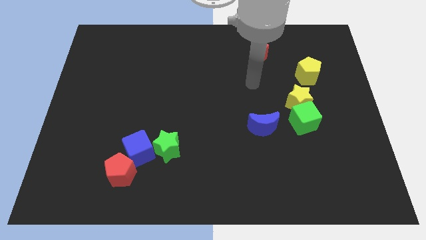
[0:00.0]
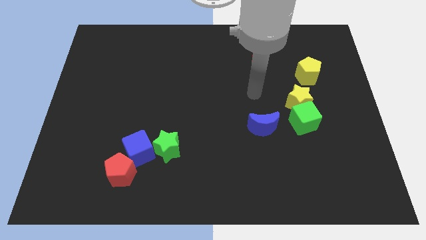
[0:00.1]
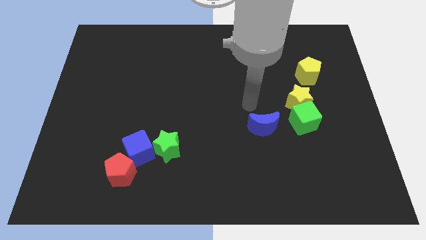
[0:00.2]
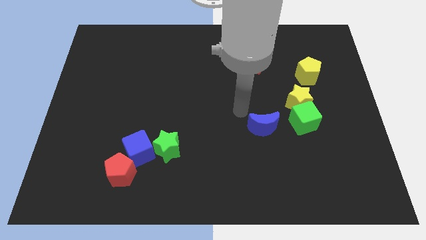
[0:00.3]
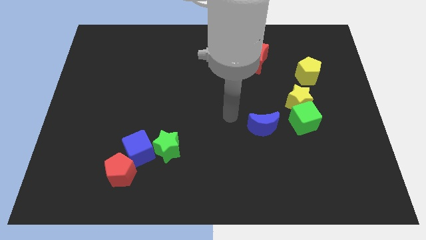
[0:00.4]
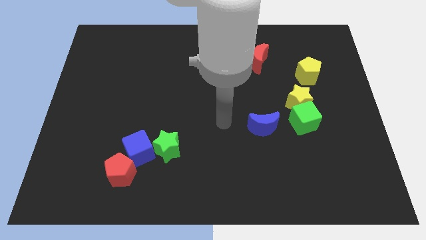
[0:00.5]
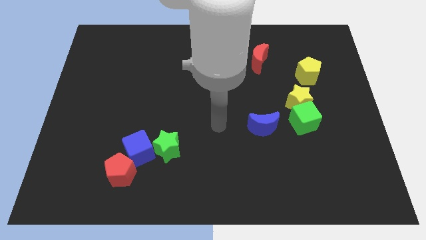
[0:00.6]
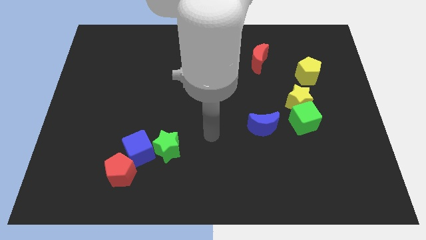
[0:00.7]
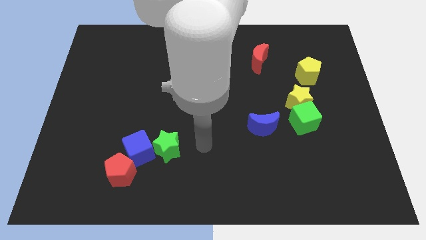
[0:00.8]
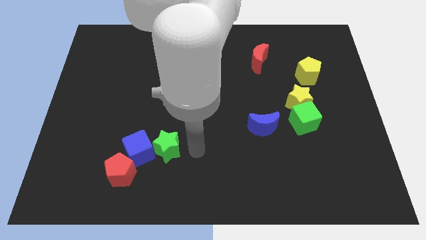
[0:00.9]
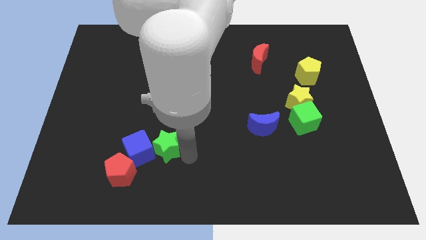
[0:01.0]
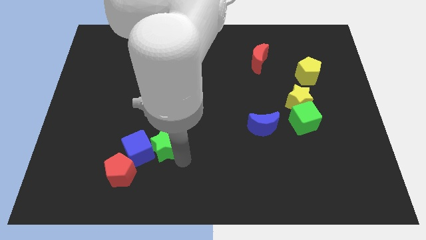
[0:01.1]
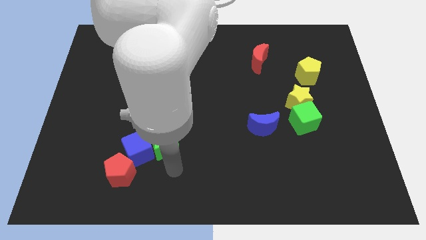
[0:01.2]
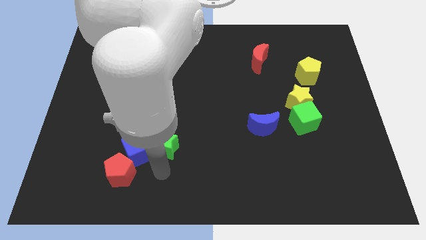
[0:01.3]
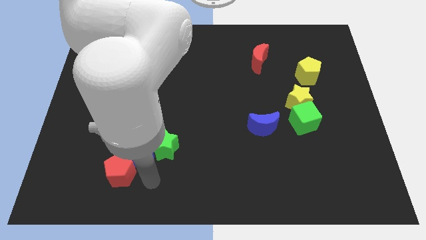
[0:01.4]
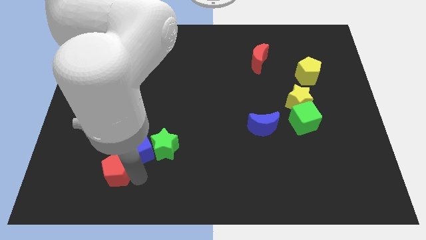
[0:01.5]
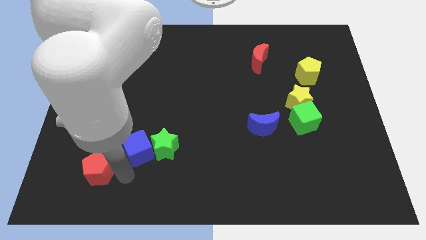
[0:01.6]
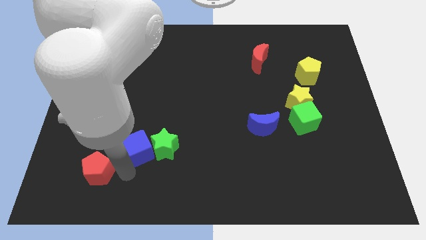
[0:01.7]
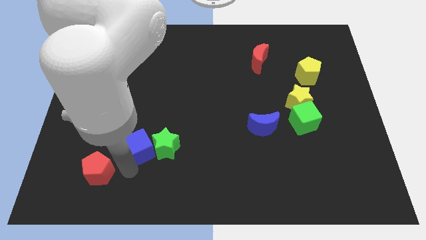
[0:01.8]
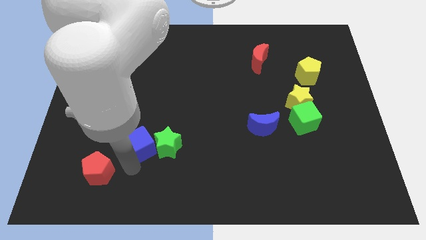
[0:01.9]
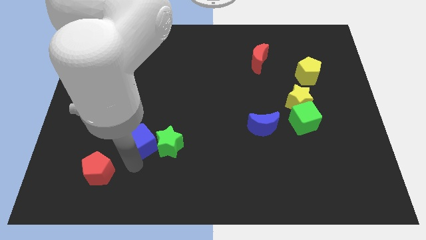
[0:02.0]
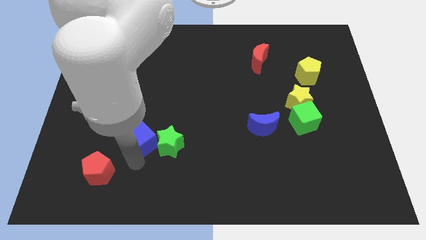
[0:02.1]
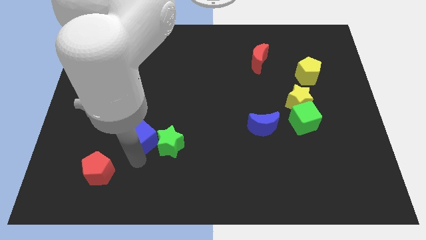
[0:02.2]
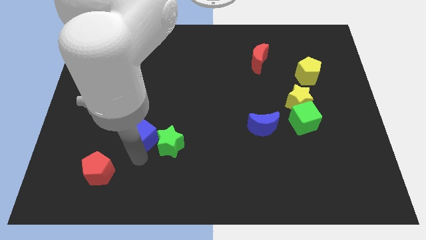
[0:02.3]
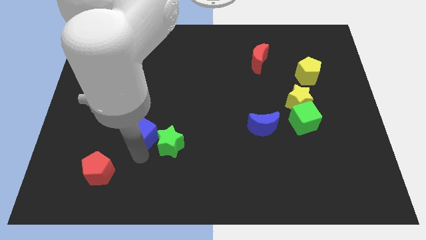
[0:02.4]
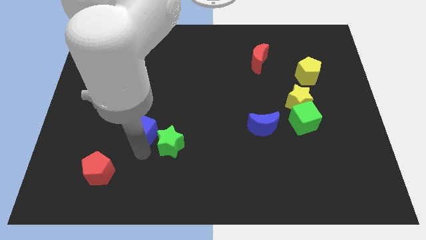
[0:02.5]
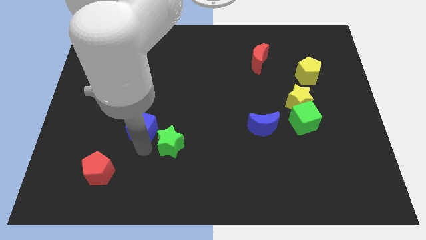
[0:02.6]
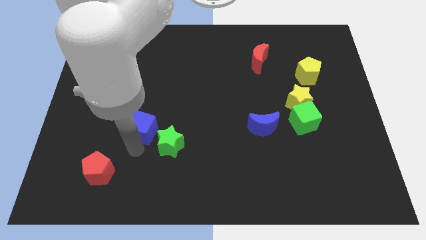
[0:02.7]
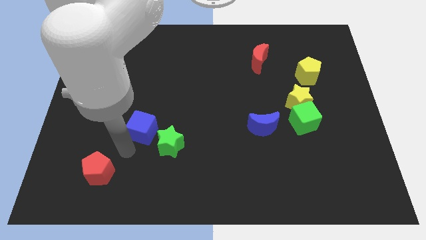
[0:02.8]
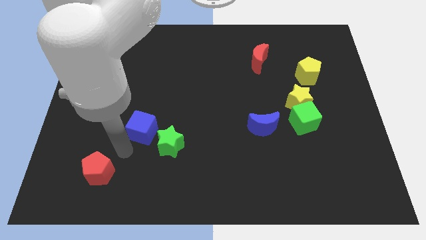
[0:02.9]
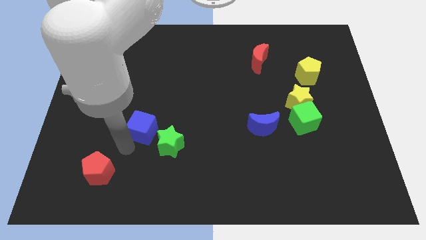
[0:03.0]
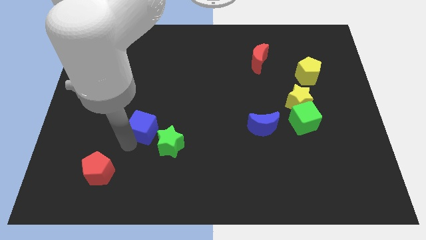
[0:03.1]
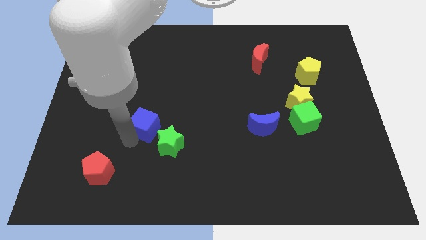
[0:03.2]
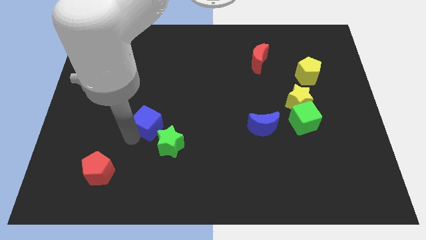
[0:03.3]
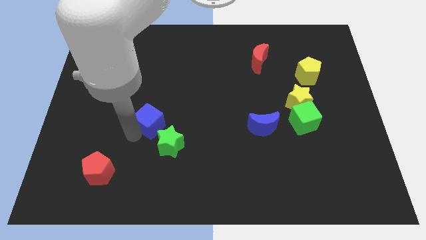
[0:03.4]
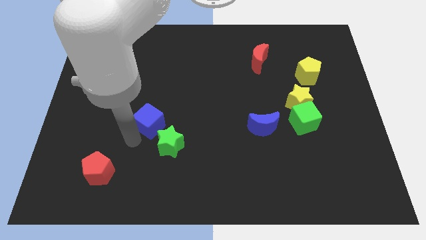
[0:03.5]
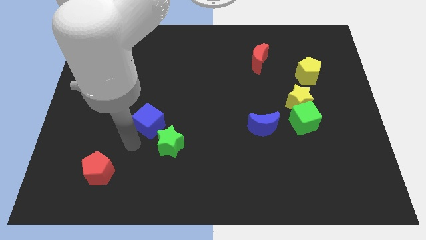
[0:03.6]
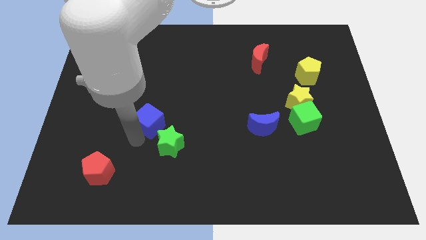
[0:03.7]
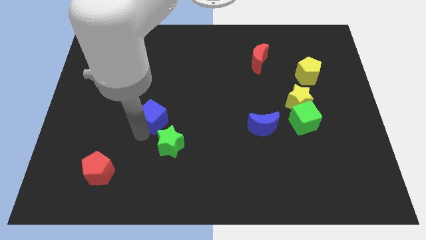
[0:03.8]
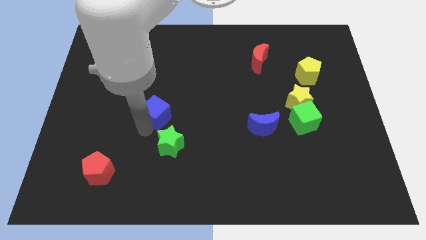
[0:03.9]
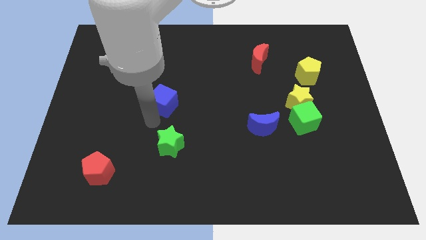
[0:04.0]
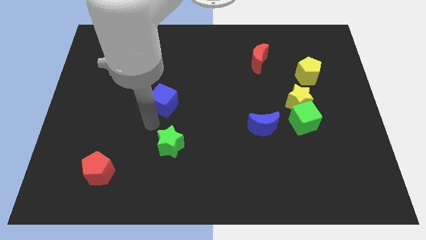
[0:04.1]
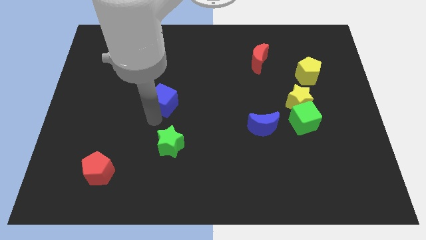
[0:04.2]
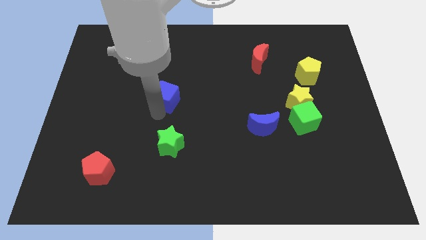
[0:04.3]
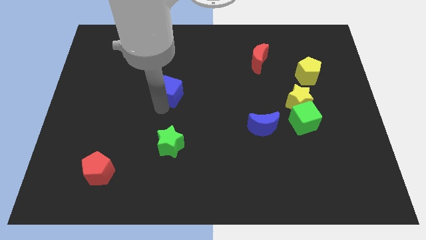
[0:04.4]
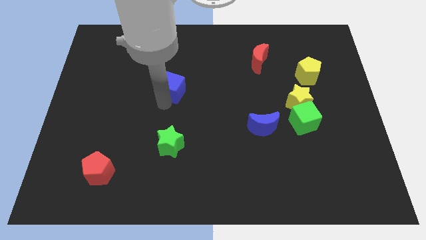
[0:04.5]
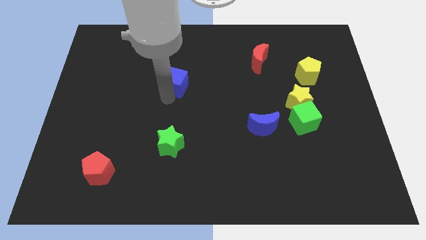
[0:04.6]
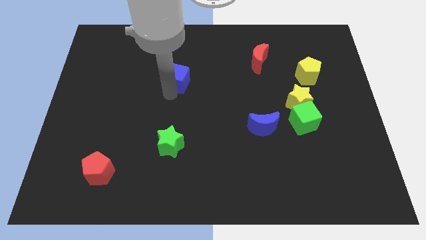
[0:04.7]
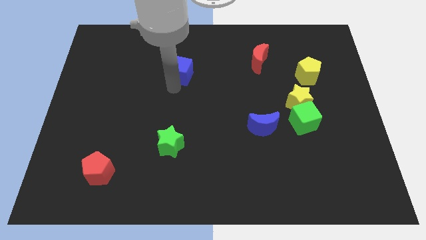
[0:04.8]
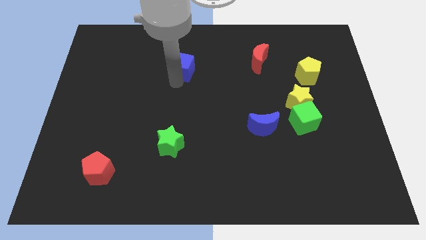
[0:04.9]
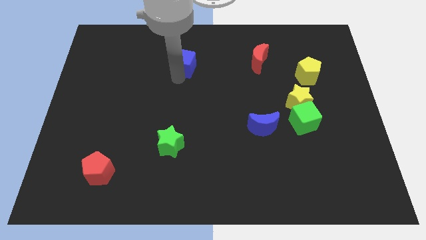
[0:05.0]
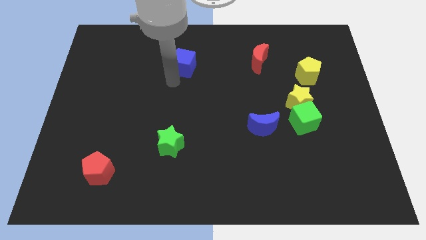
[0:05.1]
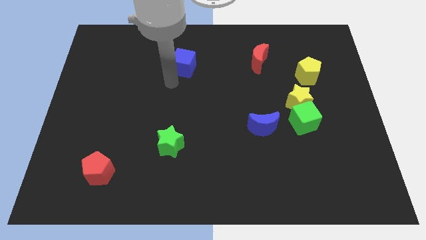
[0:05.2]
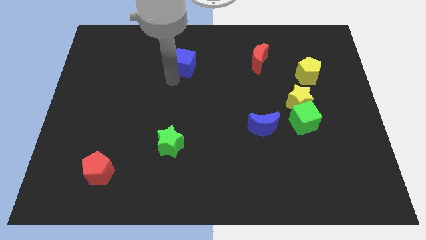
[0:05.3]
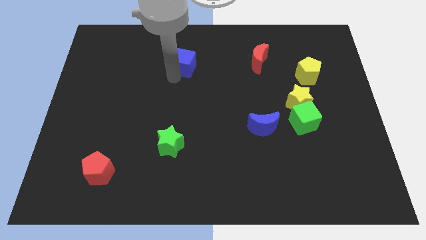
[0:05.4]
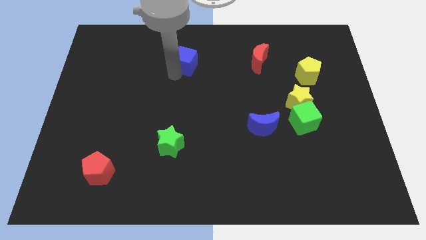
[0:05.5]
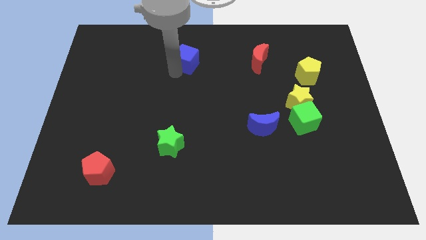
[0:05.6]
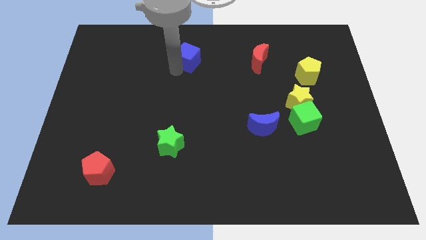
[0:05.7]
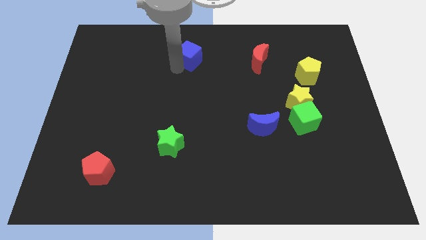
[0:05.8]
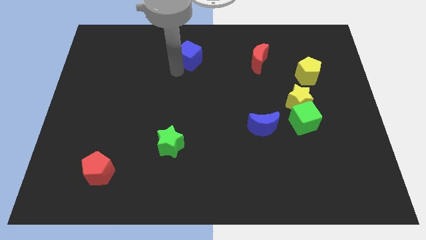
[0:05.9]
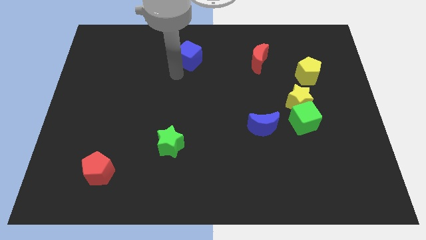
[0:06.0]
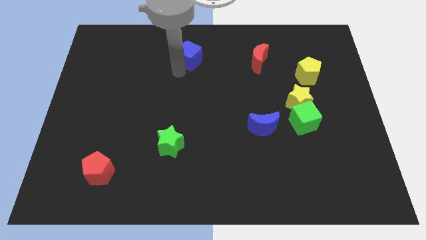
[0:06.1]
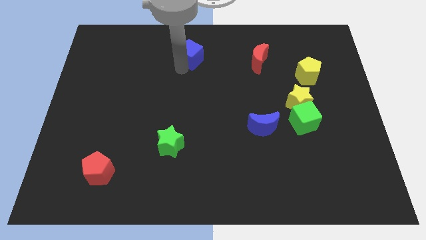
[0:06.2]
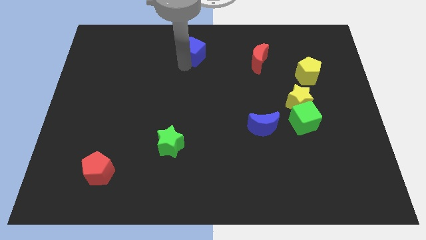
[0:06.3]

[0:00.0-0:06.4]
slide the blue cube to the top
